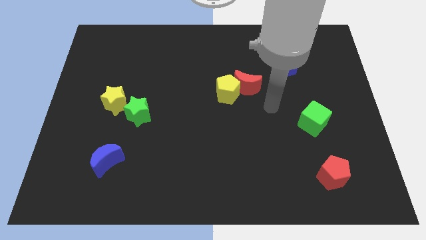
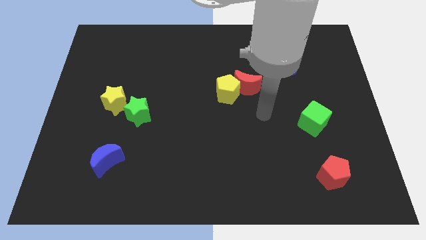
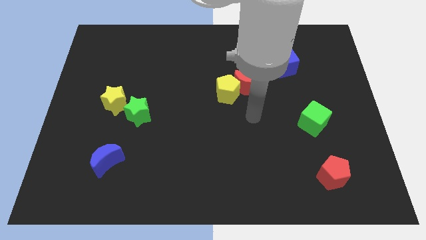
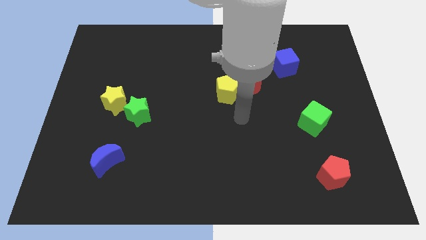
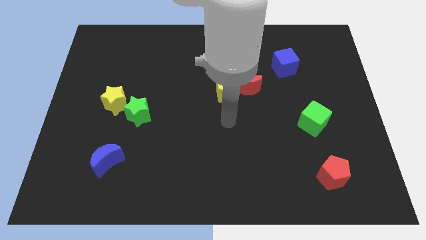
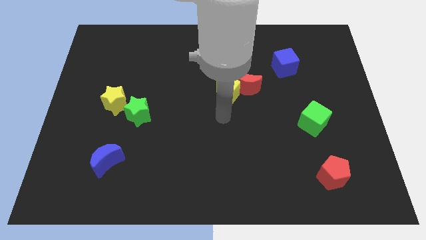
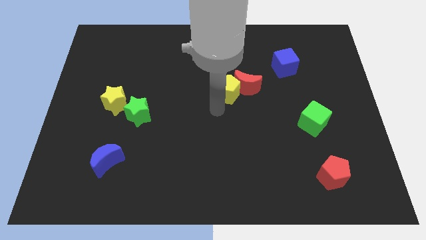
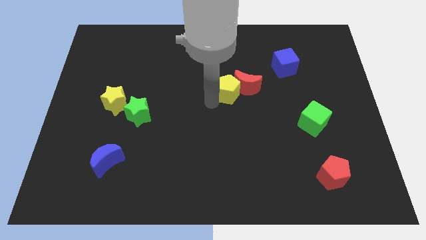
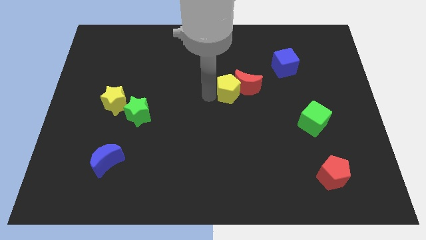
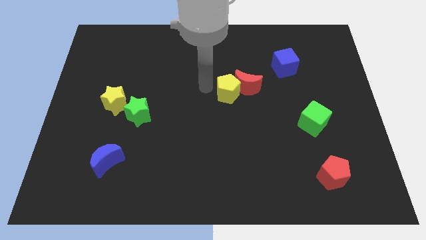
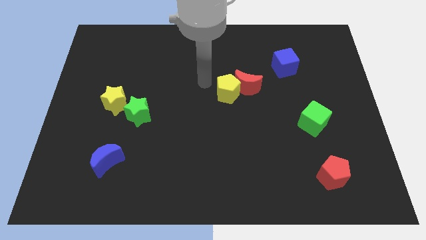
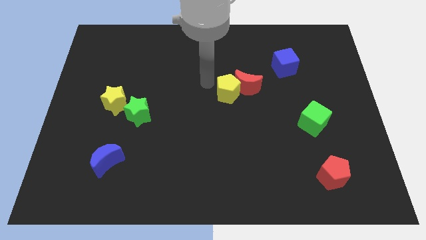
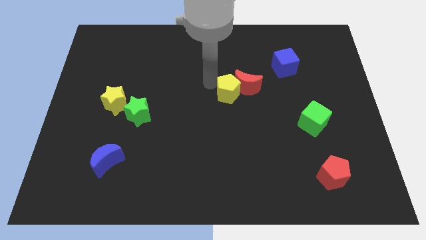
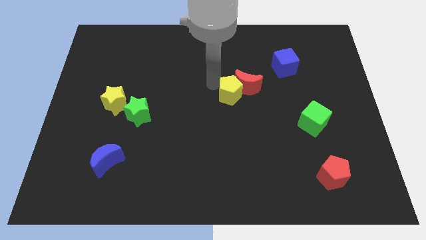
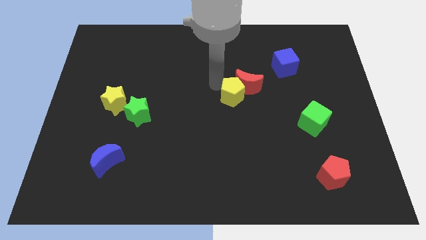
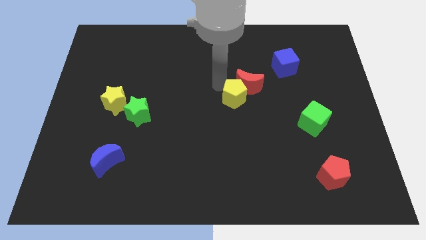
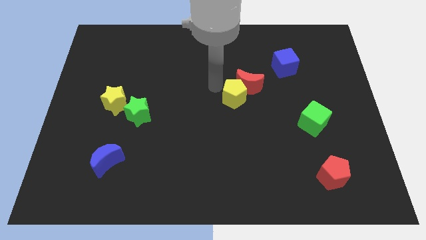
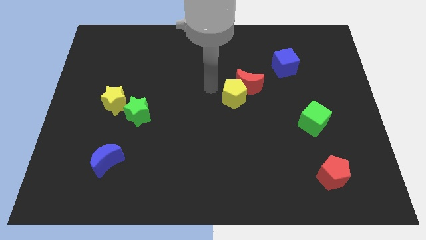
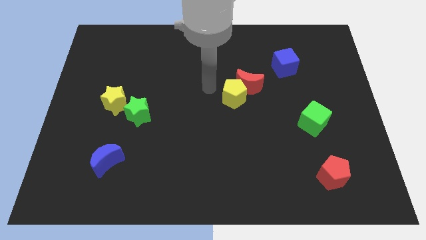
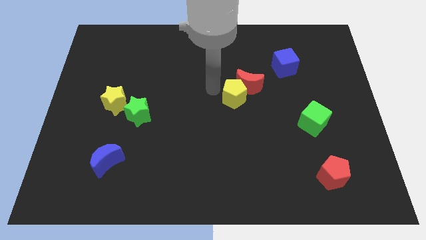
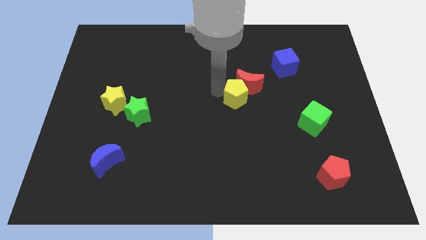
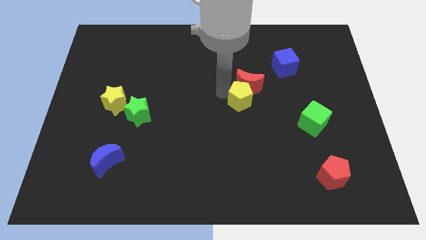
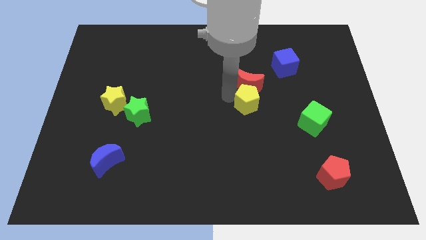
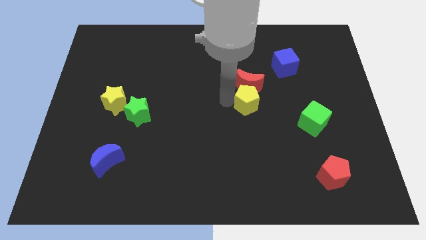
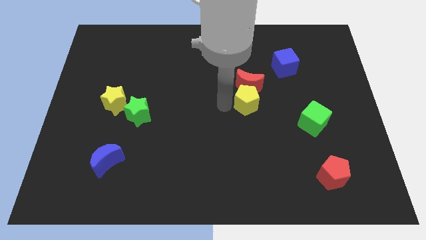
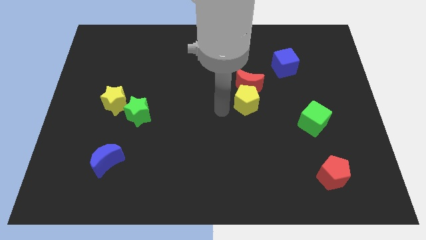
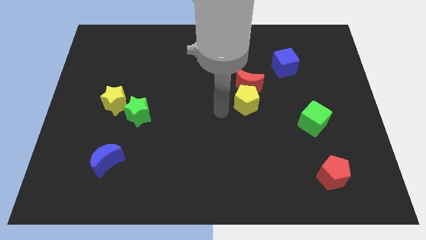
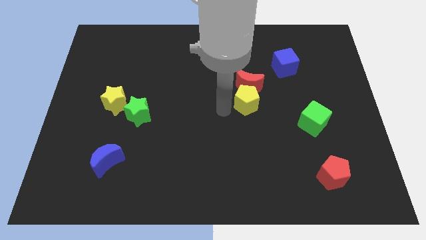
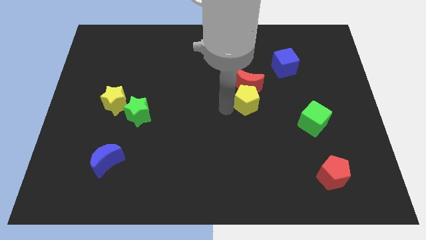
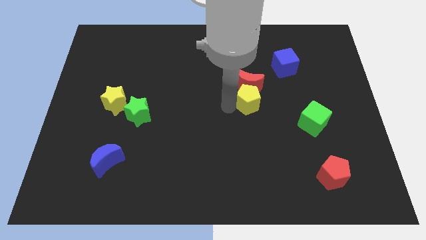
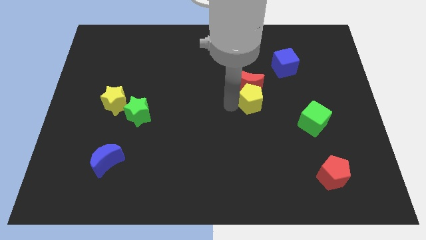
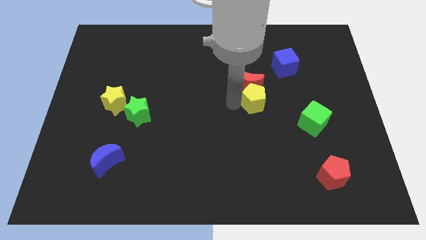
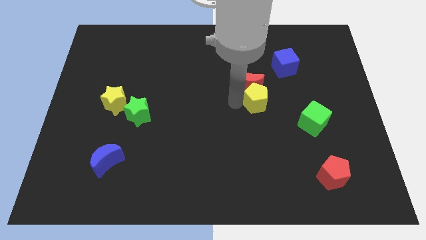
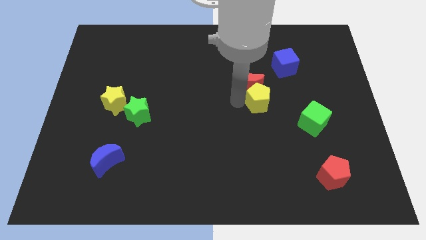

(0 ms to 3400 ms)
slightly slide the yellow pentagon to the right

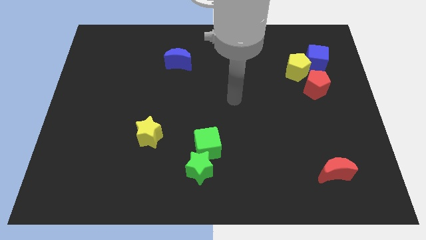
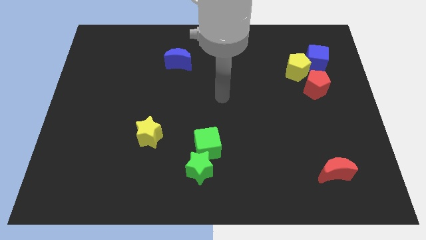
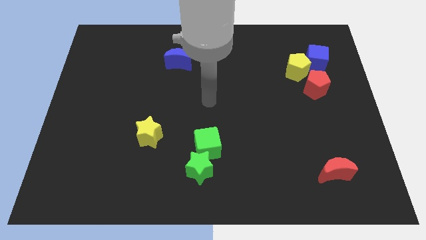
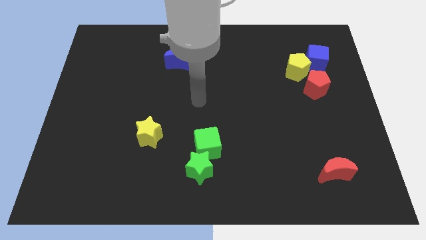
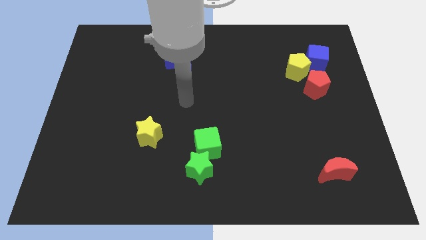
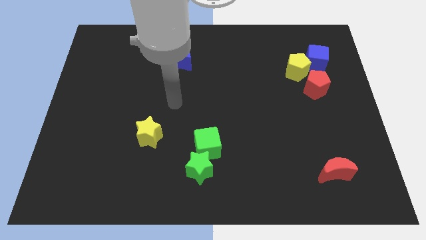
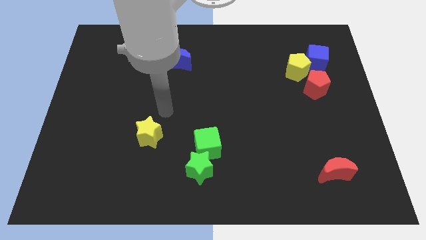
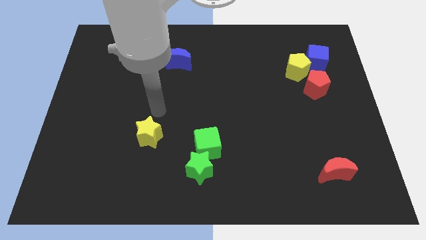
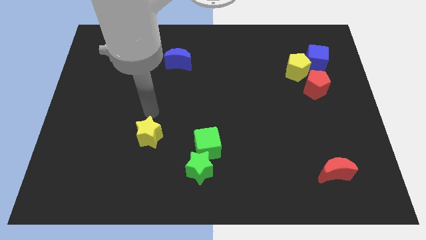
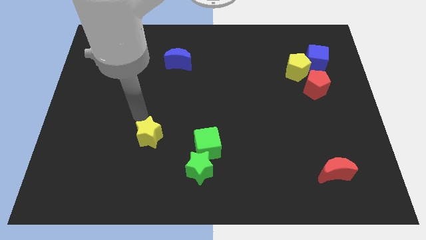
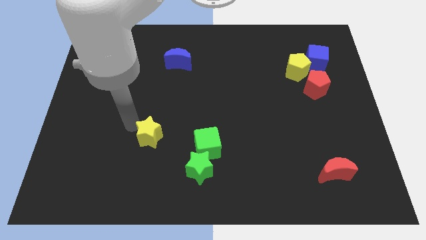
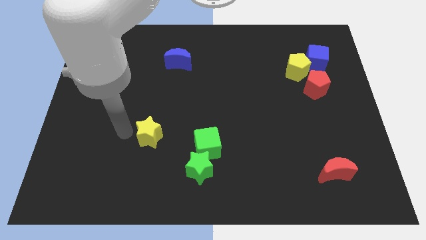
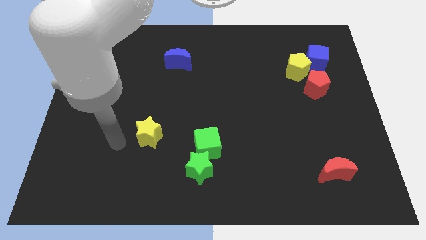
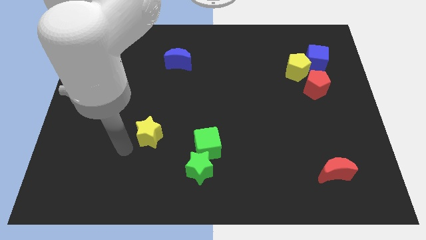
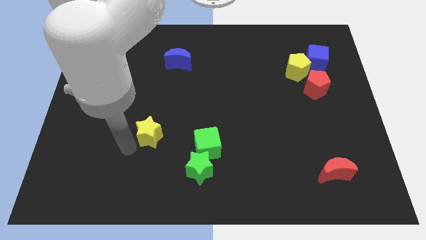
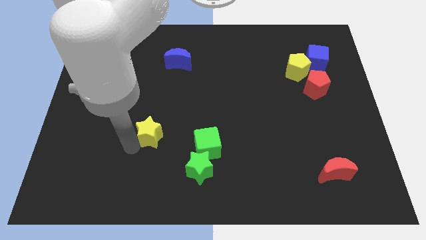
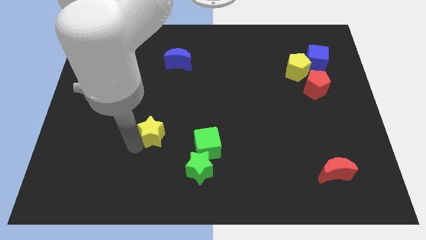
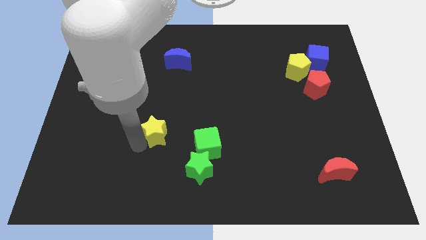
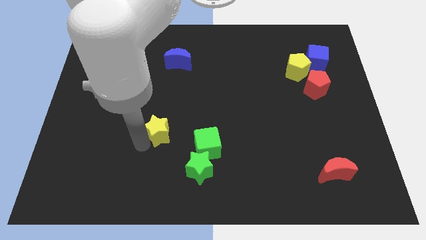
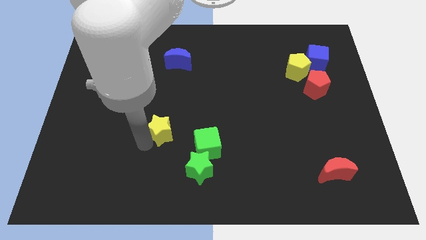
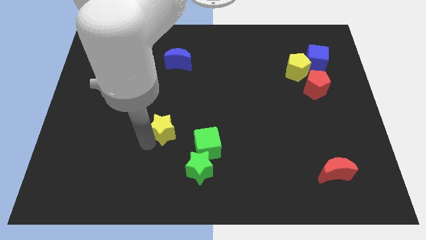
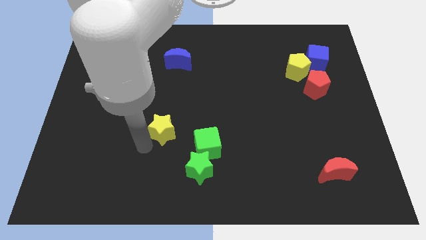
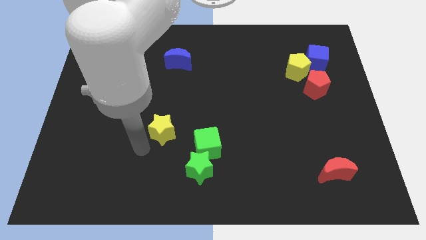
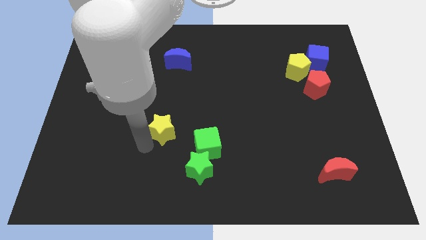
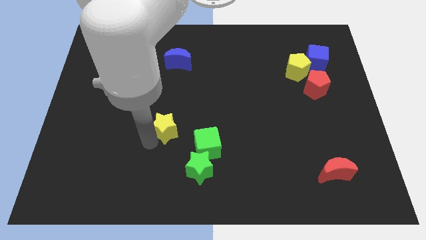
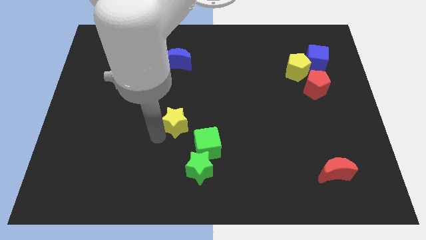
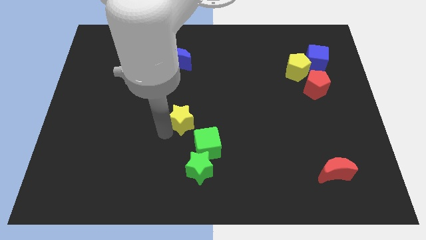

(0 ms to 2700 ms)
push the yellow star upwards and then right a bit

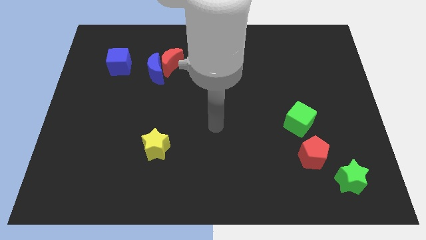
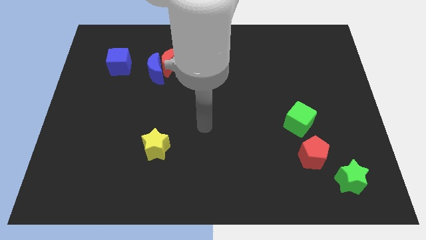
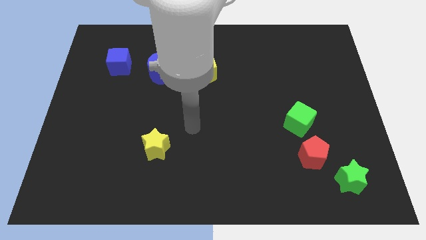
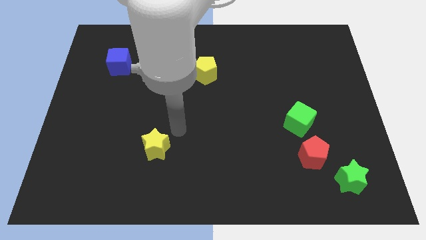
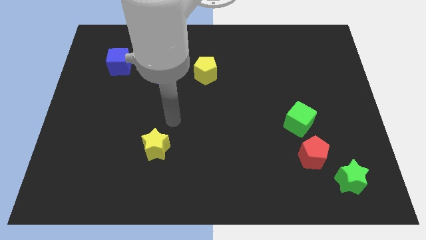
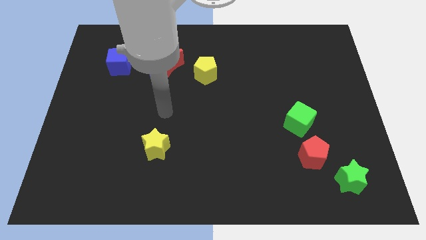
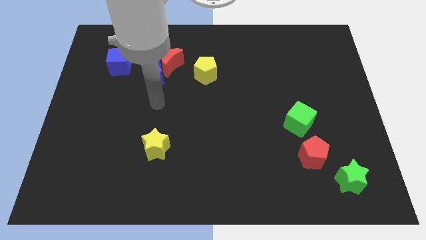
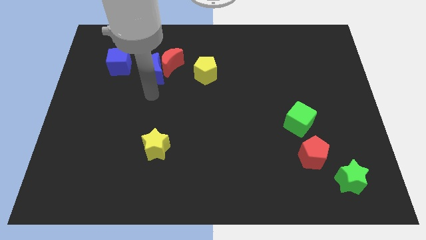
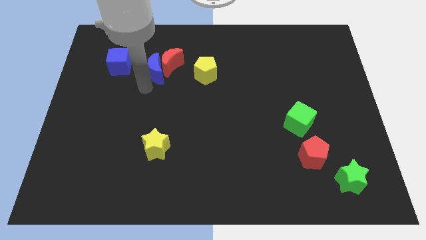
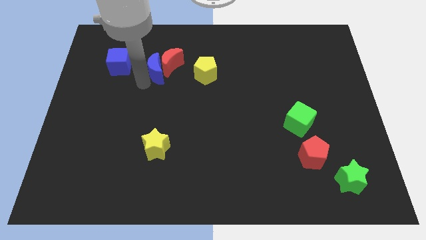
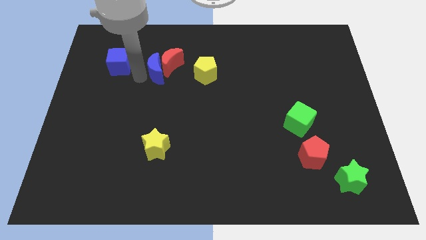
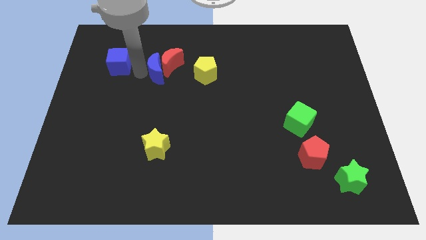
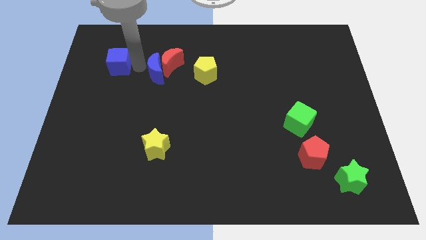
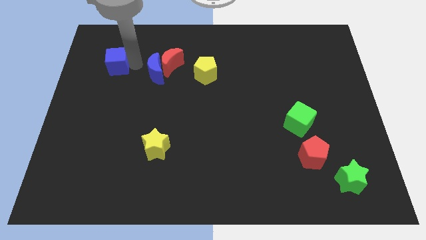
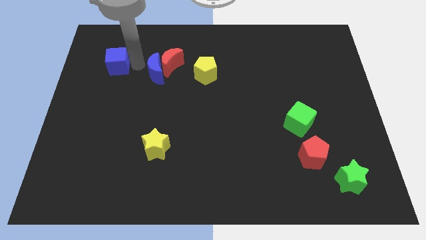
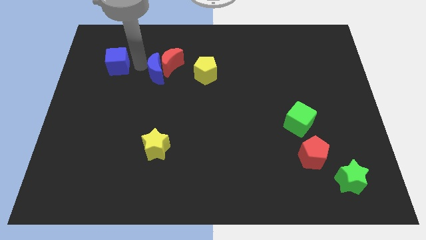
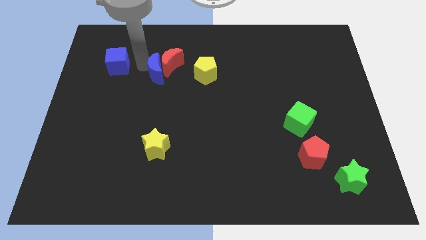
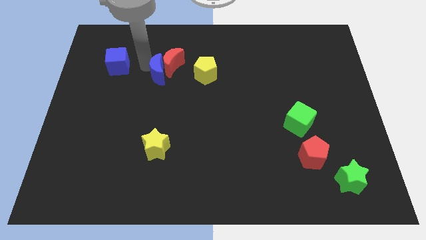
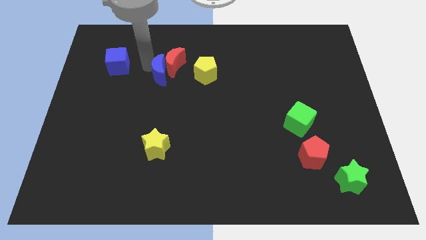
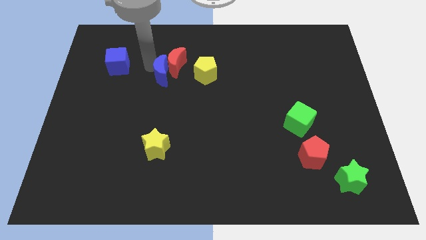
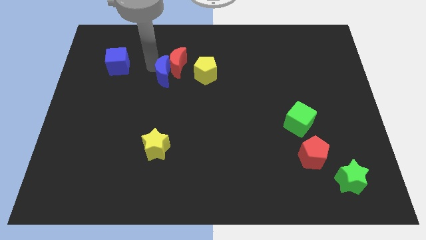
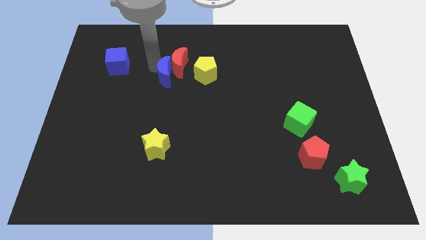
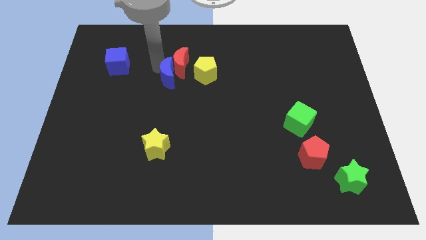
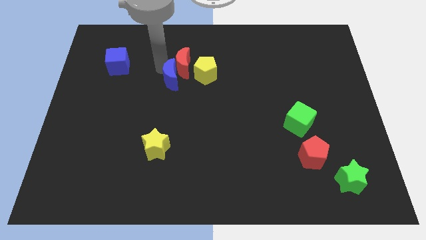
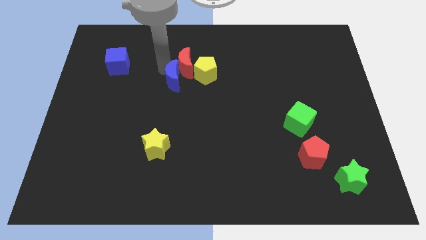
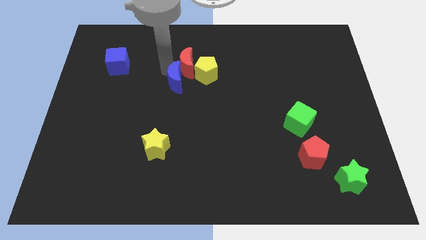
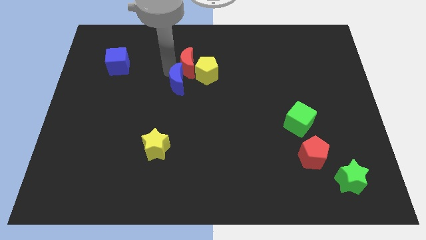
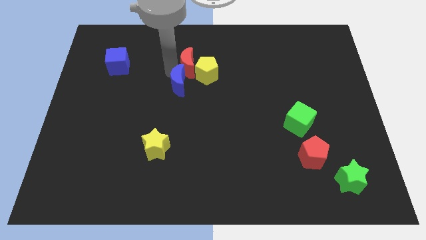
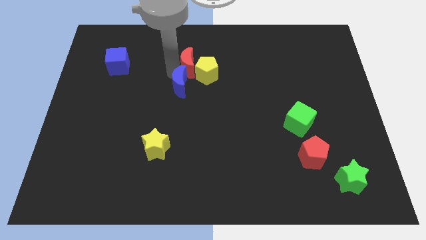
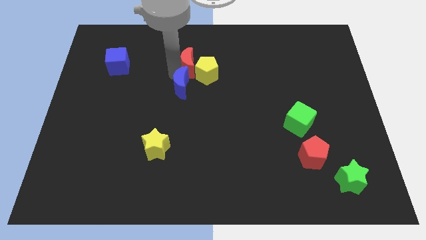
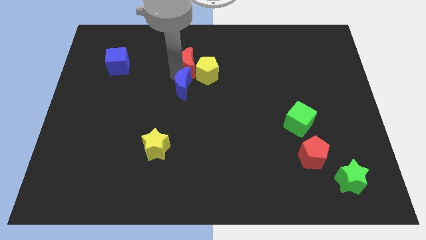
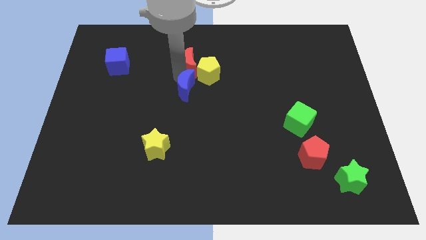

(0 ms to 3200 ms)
slightly push the blue moon right
